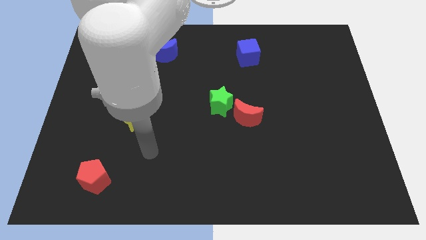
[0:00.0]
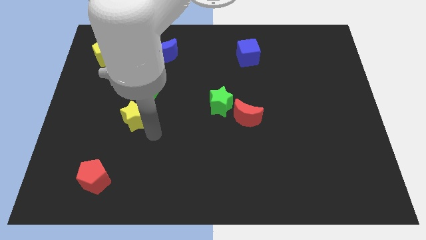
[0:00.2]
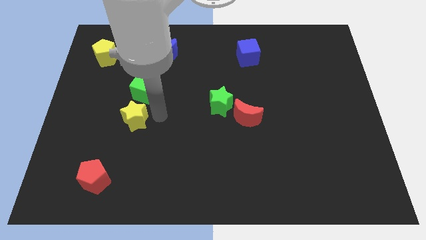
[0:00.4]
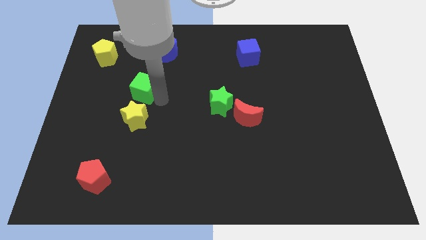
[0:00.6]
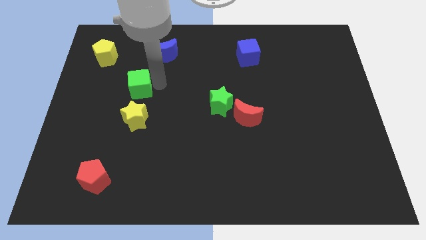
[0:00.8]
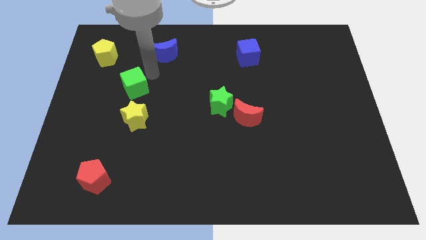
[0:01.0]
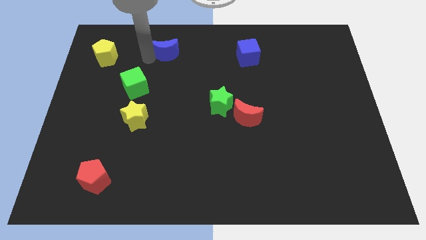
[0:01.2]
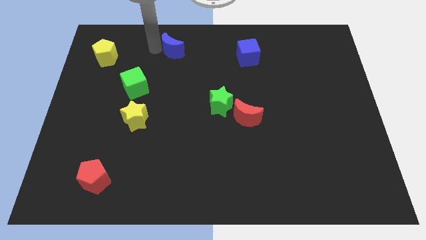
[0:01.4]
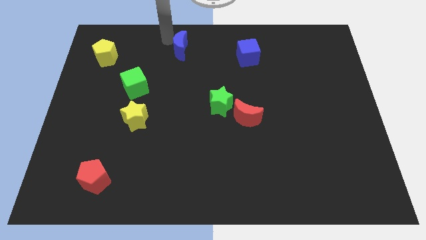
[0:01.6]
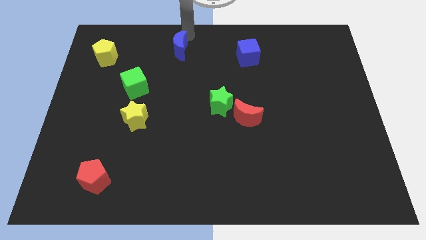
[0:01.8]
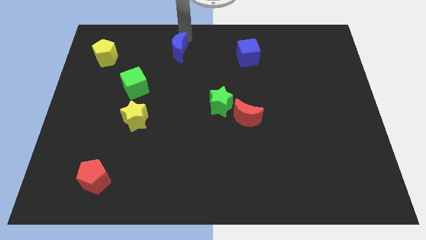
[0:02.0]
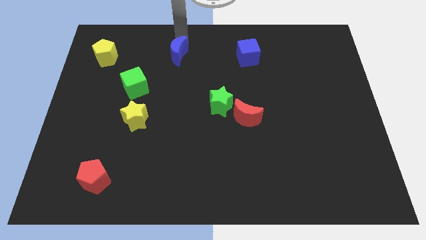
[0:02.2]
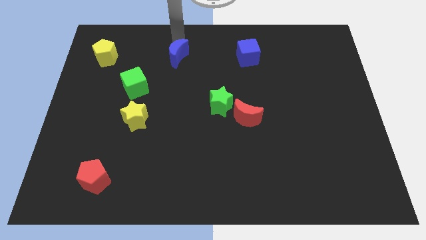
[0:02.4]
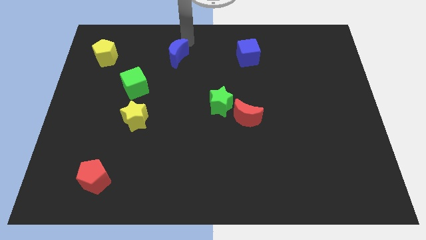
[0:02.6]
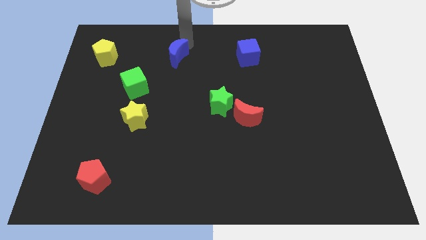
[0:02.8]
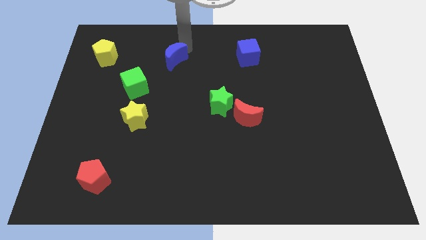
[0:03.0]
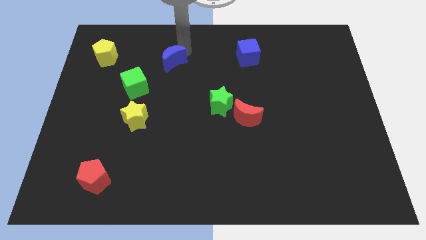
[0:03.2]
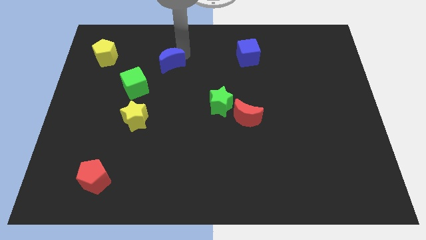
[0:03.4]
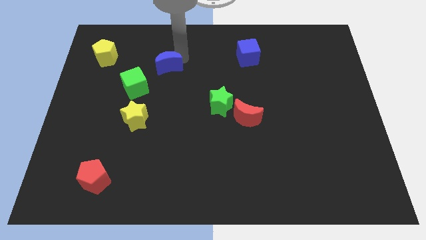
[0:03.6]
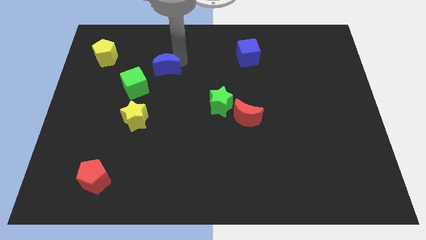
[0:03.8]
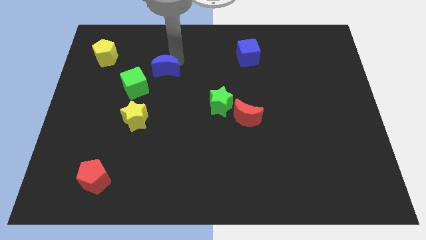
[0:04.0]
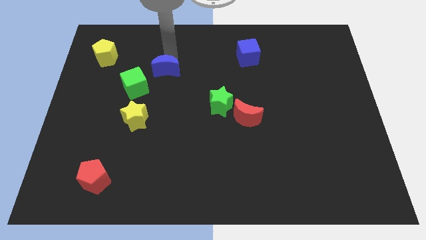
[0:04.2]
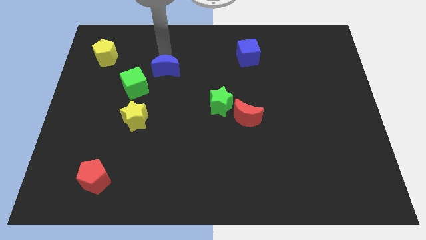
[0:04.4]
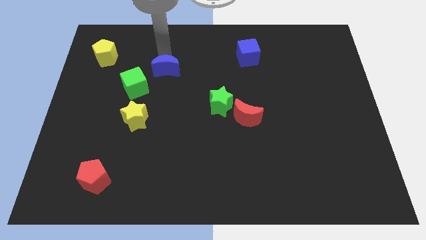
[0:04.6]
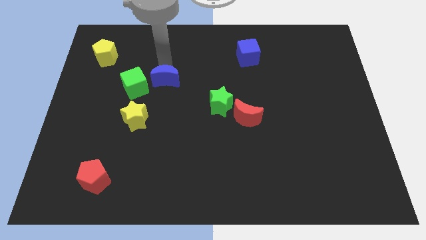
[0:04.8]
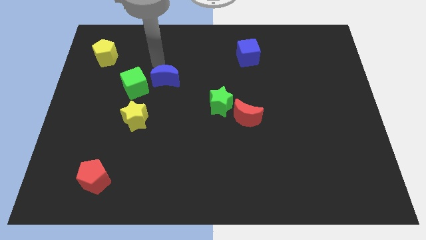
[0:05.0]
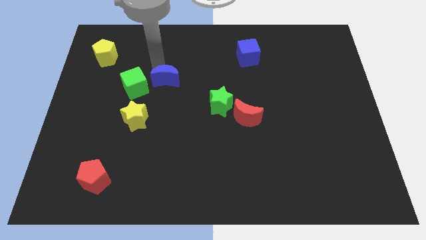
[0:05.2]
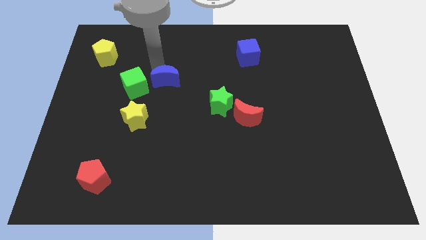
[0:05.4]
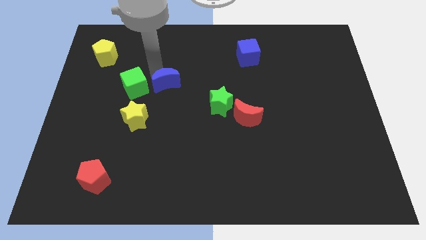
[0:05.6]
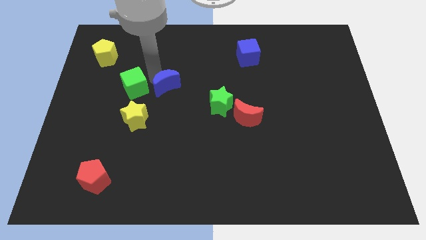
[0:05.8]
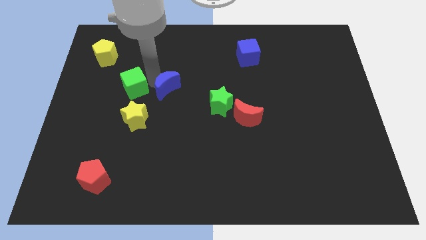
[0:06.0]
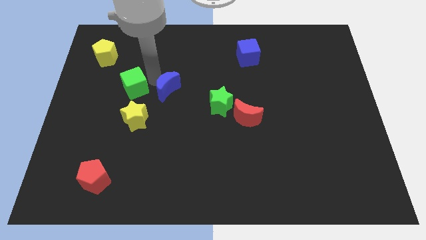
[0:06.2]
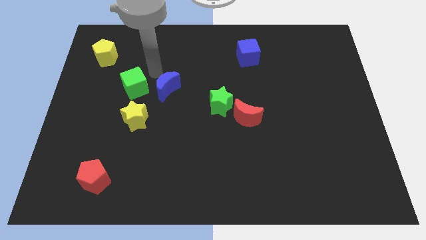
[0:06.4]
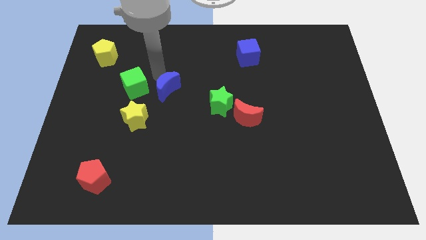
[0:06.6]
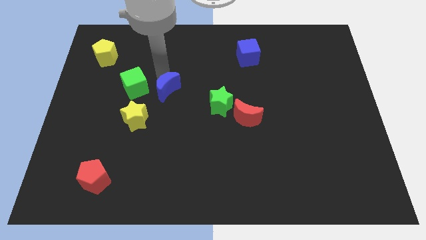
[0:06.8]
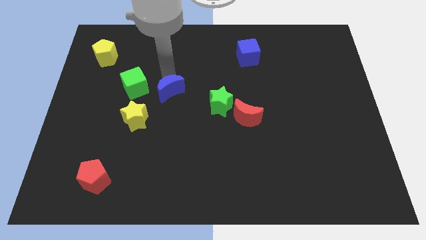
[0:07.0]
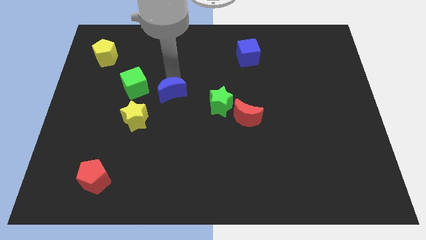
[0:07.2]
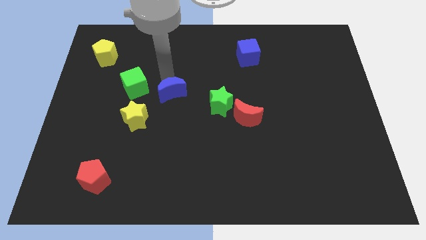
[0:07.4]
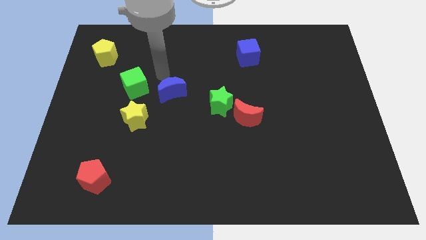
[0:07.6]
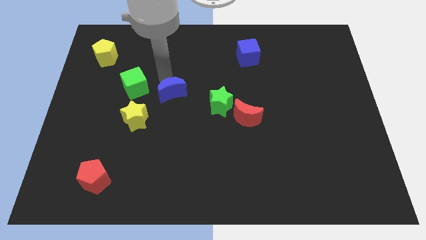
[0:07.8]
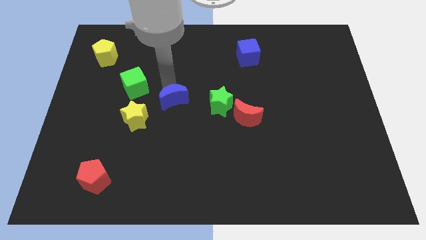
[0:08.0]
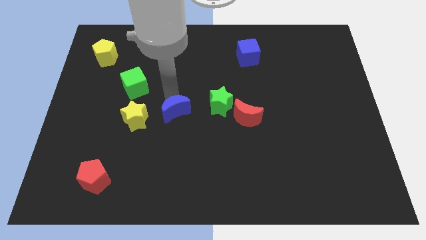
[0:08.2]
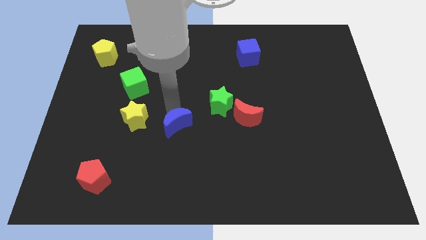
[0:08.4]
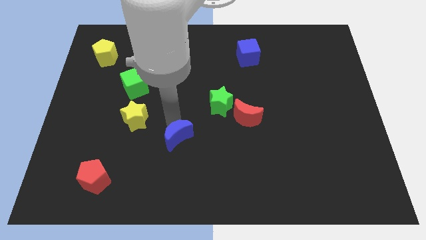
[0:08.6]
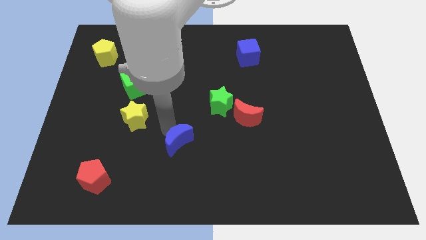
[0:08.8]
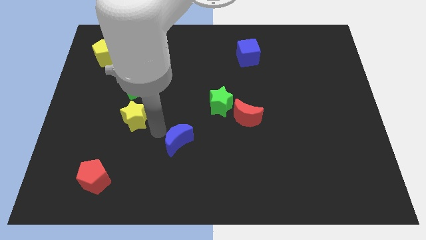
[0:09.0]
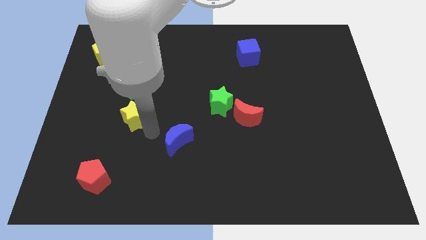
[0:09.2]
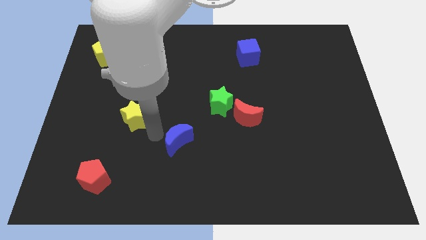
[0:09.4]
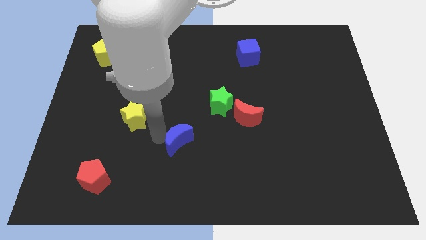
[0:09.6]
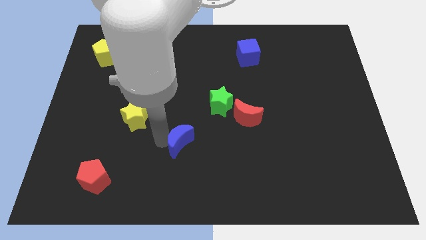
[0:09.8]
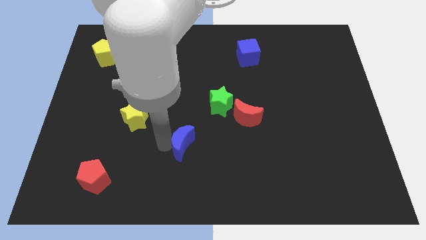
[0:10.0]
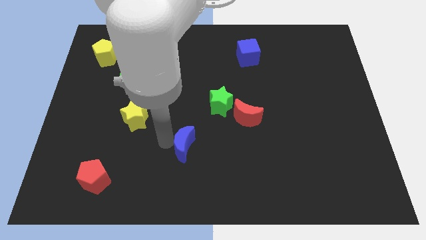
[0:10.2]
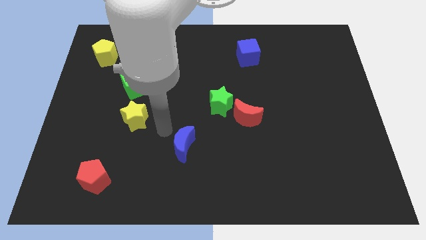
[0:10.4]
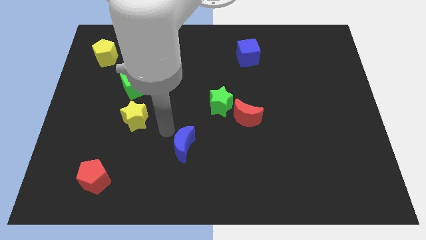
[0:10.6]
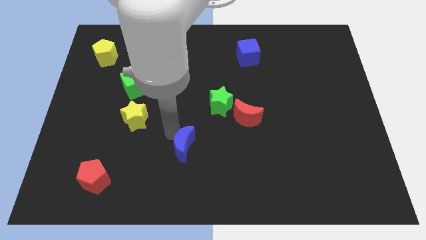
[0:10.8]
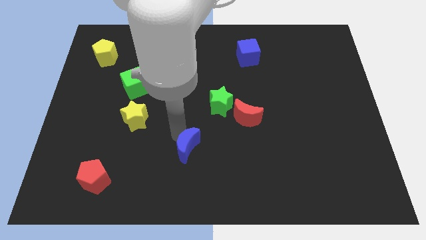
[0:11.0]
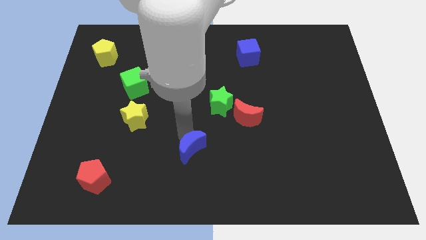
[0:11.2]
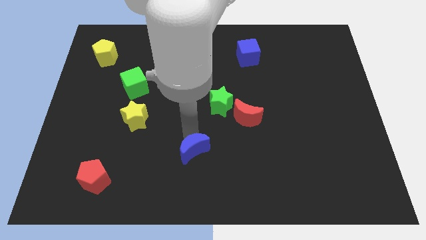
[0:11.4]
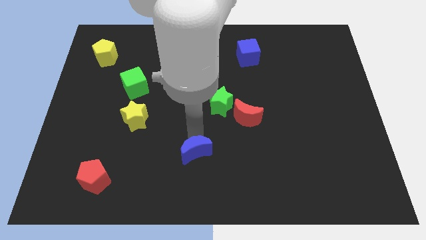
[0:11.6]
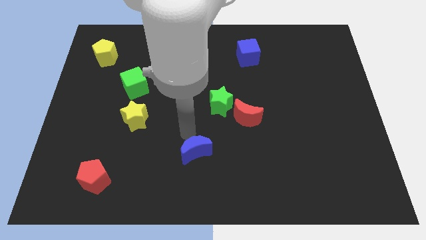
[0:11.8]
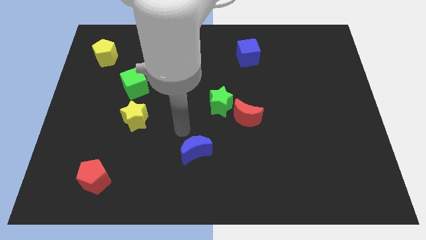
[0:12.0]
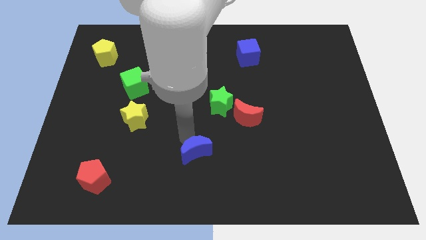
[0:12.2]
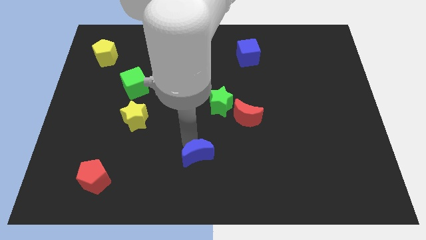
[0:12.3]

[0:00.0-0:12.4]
push the blue moon to the bottom
